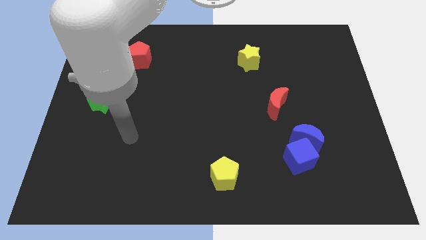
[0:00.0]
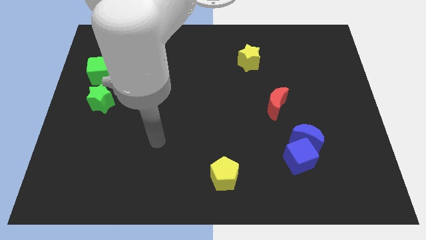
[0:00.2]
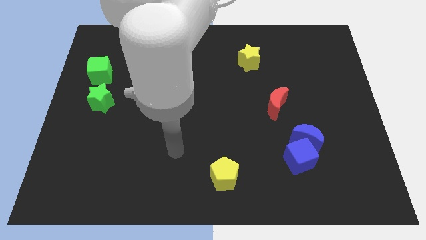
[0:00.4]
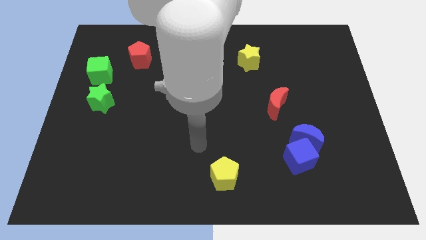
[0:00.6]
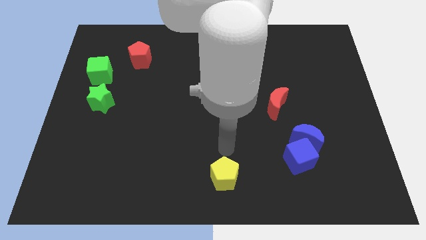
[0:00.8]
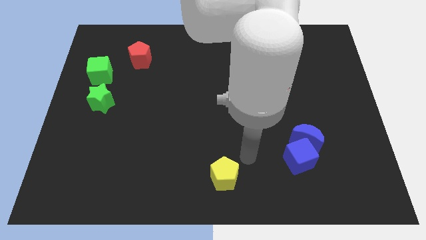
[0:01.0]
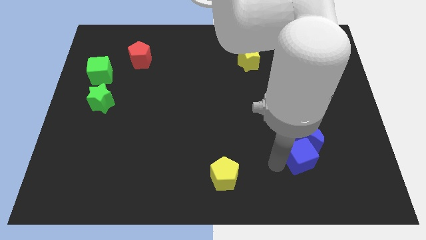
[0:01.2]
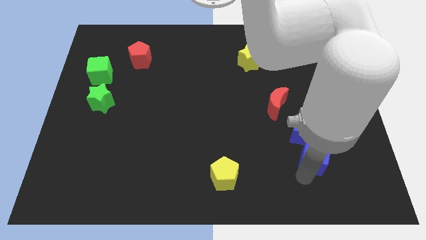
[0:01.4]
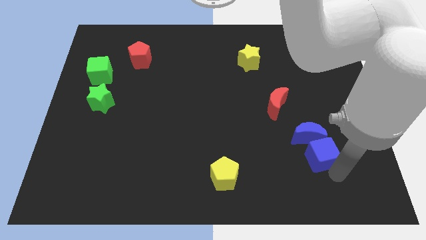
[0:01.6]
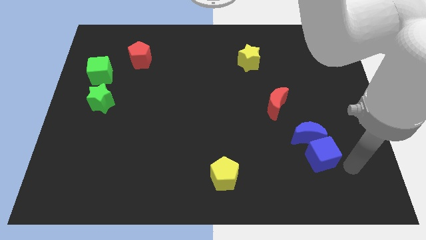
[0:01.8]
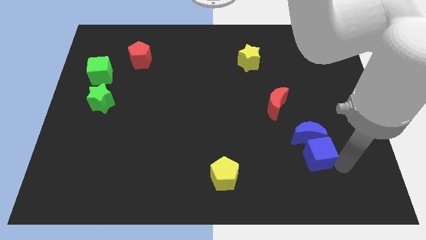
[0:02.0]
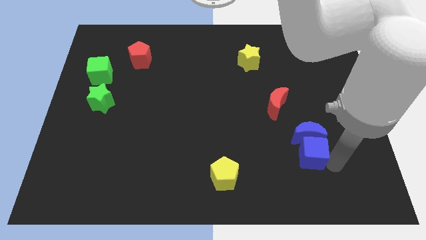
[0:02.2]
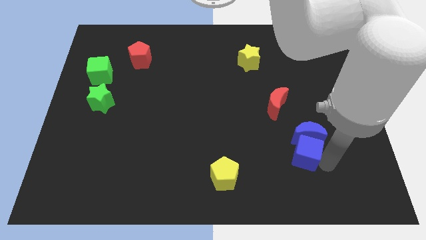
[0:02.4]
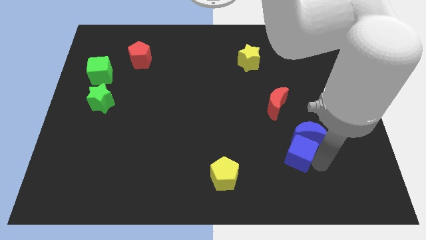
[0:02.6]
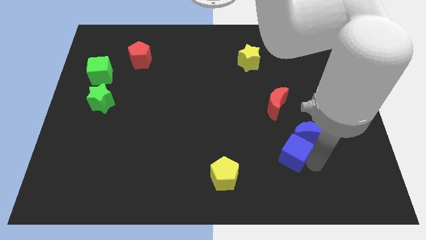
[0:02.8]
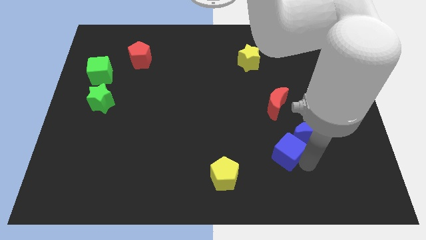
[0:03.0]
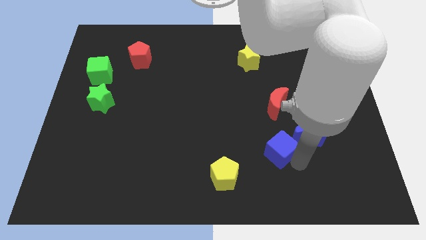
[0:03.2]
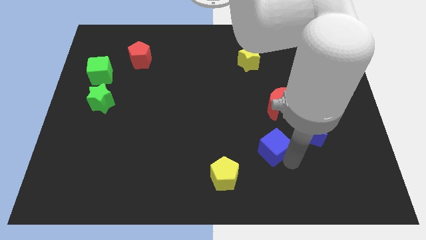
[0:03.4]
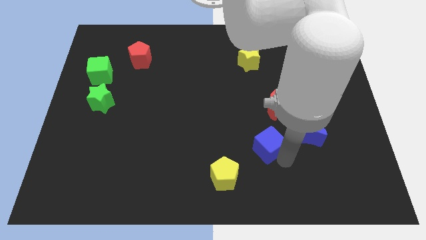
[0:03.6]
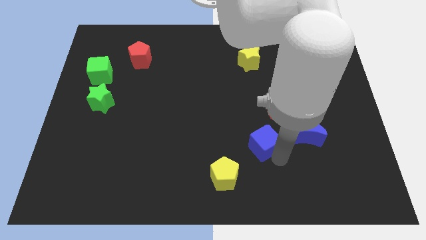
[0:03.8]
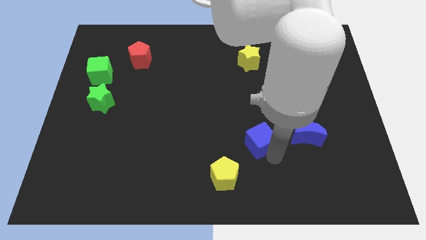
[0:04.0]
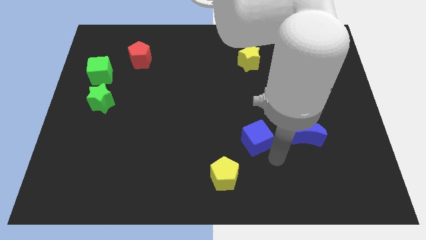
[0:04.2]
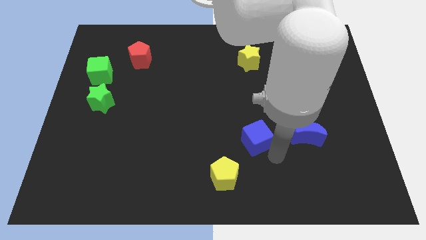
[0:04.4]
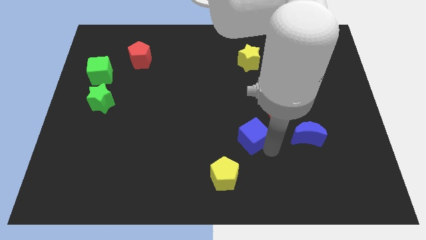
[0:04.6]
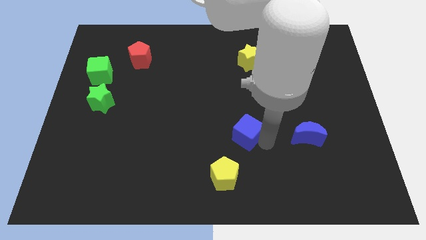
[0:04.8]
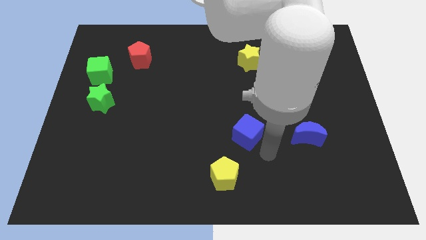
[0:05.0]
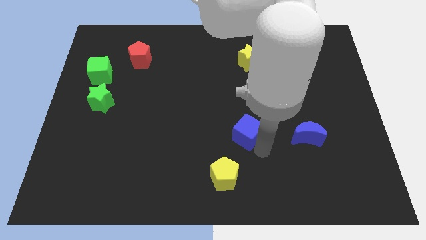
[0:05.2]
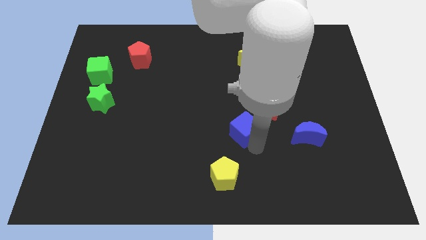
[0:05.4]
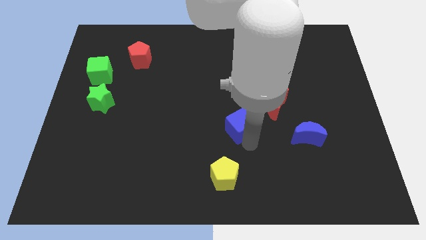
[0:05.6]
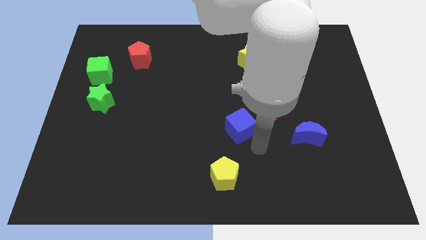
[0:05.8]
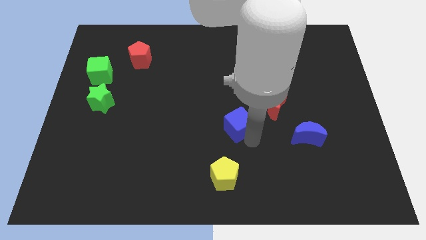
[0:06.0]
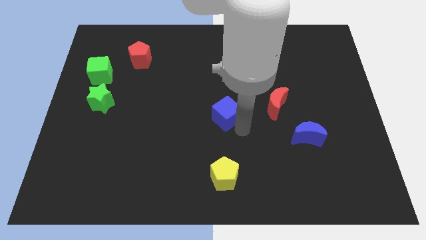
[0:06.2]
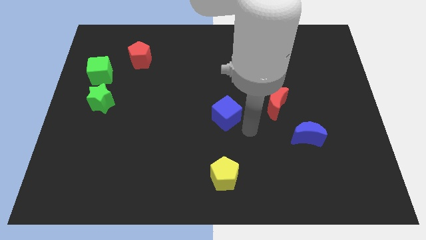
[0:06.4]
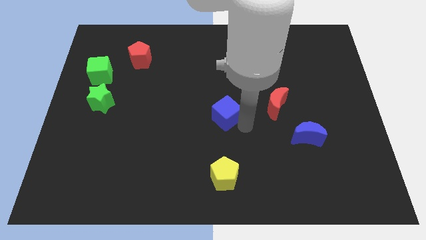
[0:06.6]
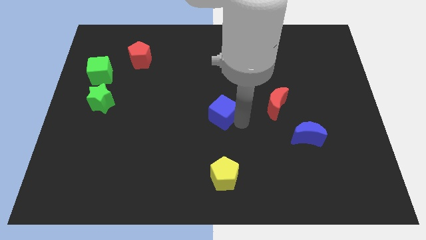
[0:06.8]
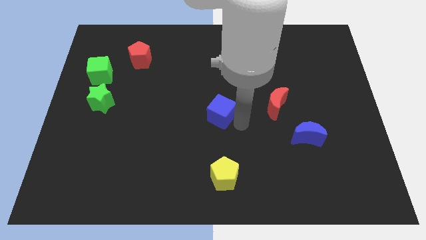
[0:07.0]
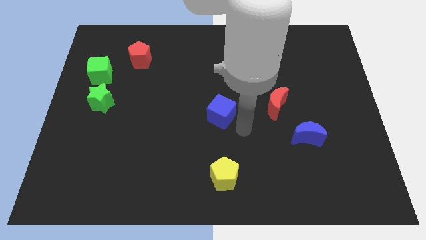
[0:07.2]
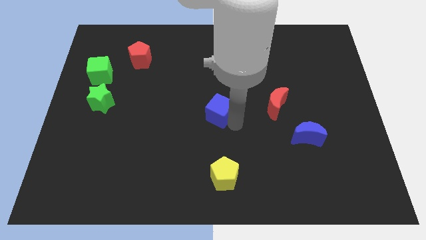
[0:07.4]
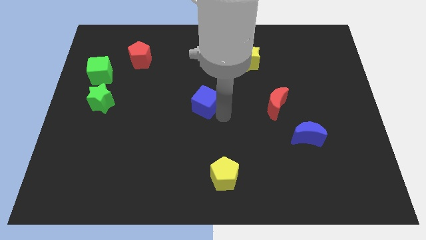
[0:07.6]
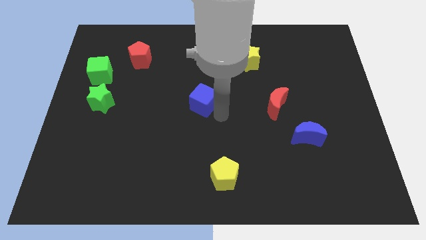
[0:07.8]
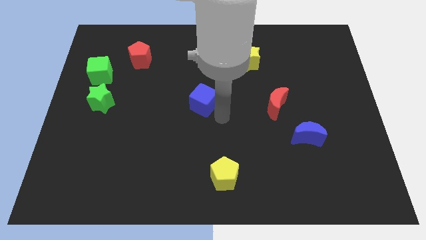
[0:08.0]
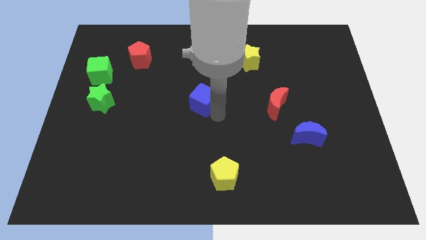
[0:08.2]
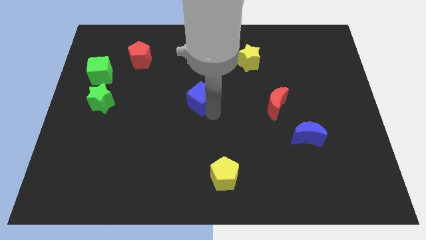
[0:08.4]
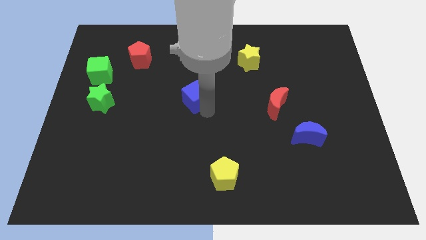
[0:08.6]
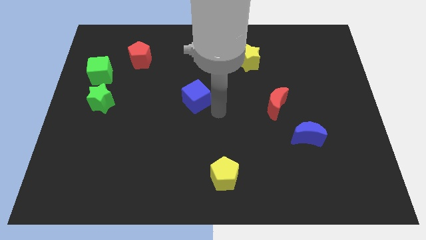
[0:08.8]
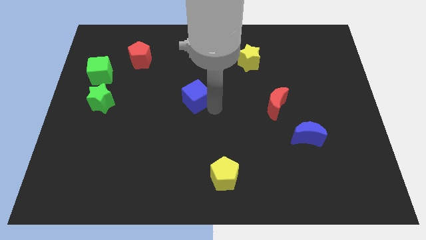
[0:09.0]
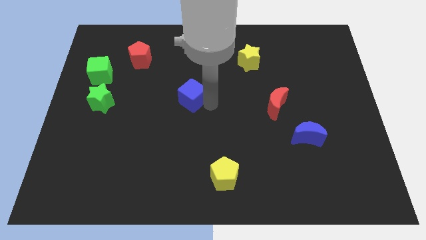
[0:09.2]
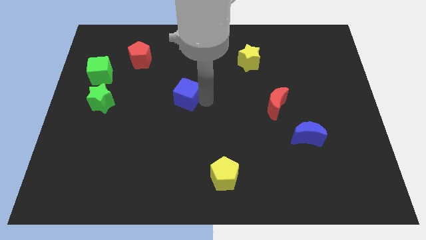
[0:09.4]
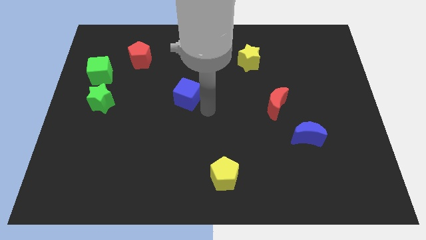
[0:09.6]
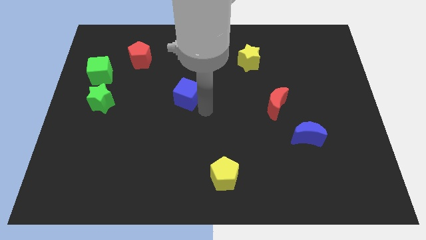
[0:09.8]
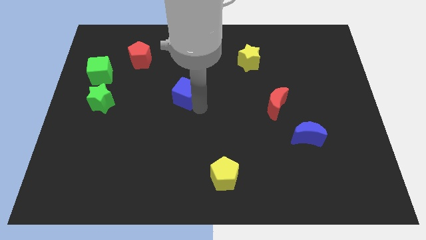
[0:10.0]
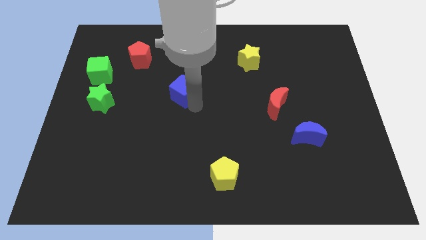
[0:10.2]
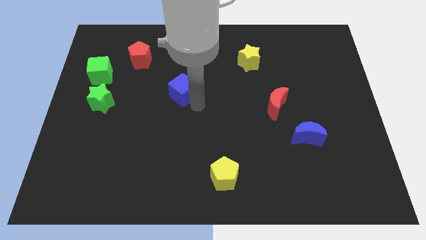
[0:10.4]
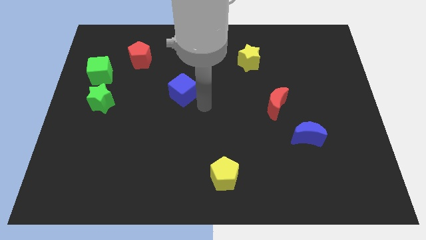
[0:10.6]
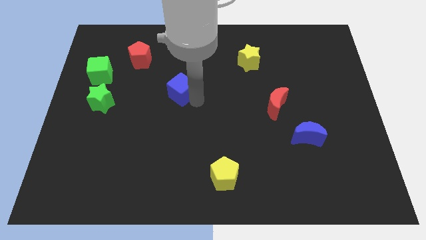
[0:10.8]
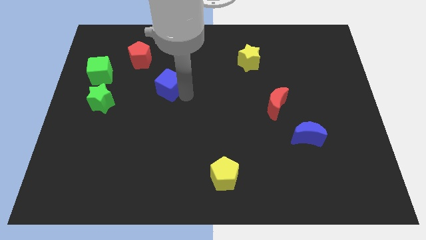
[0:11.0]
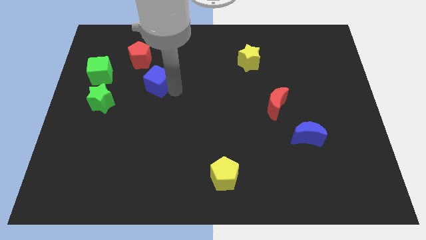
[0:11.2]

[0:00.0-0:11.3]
move the blue cube right of the green cube
